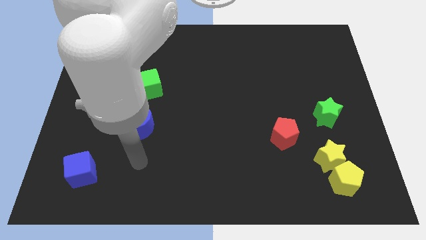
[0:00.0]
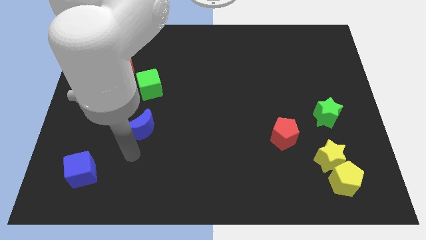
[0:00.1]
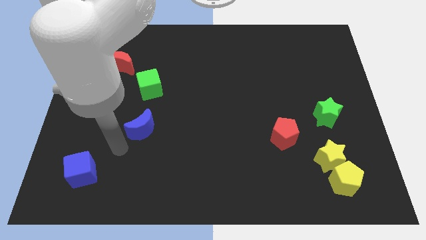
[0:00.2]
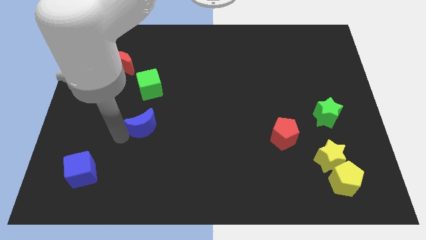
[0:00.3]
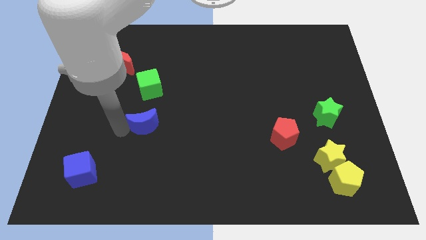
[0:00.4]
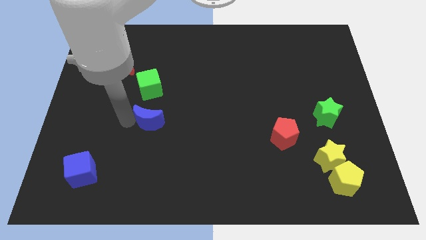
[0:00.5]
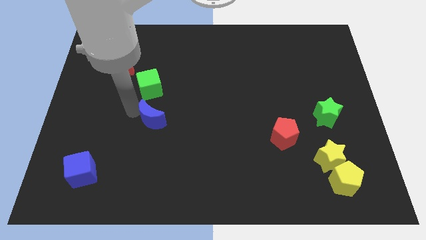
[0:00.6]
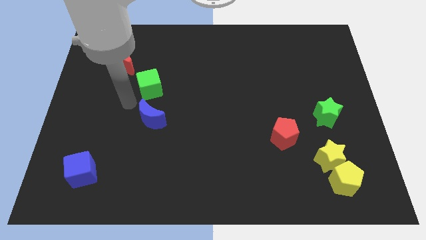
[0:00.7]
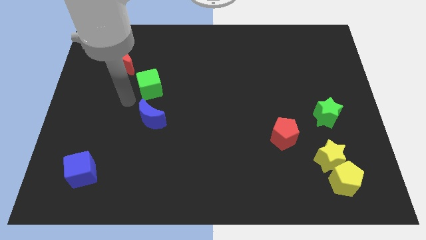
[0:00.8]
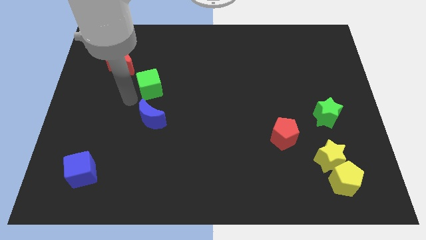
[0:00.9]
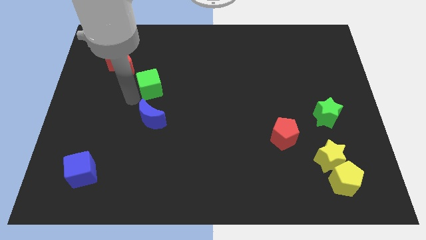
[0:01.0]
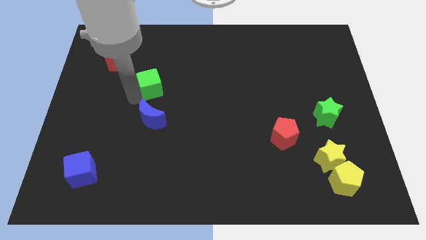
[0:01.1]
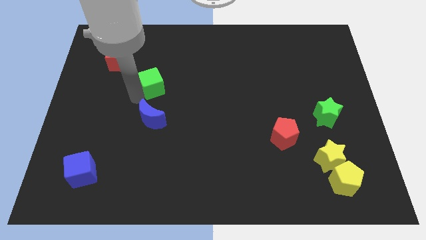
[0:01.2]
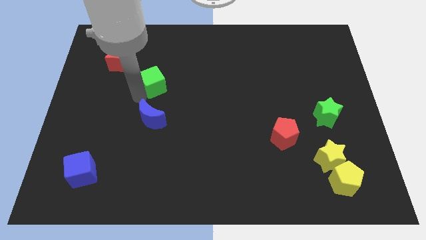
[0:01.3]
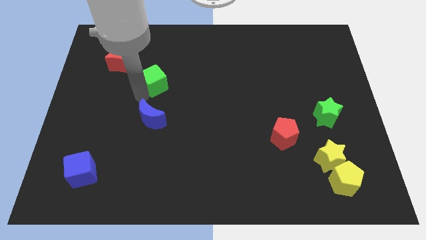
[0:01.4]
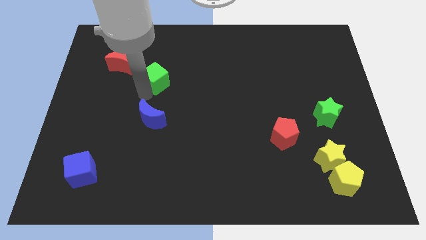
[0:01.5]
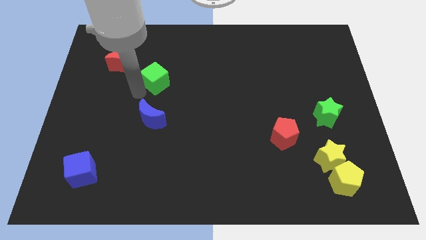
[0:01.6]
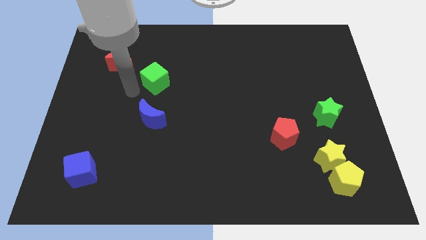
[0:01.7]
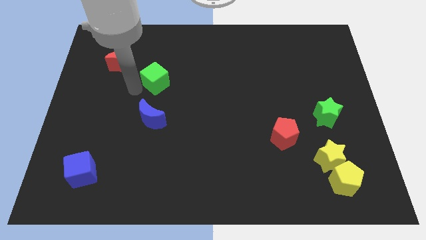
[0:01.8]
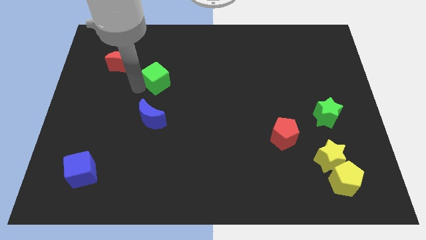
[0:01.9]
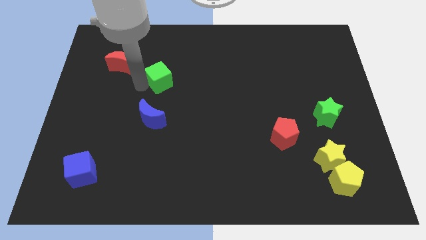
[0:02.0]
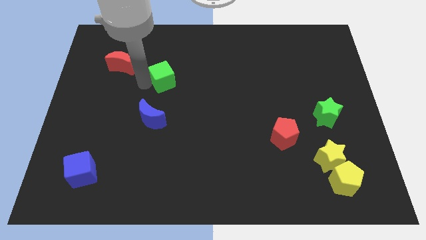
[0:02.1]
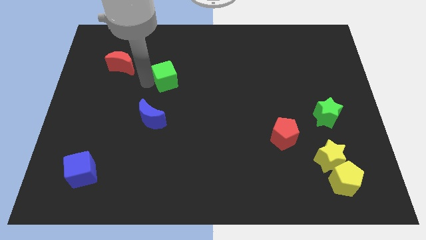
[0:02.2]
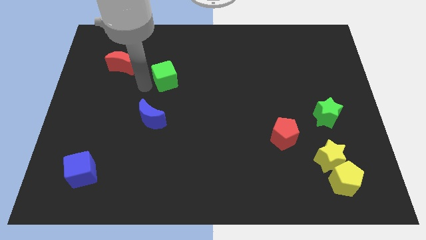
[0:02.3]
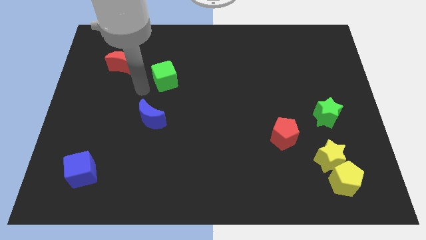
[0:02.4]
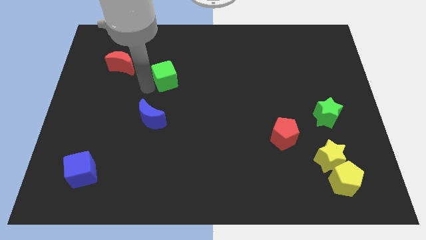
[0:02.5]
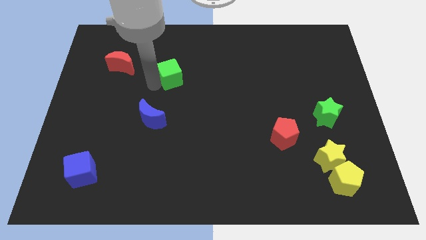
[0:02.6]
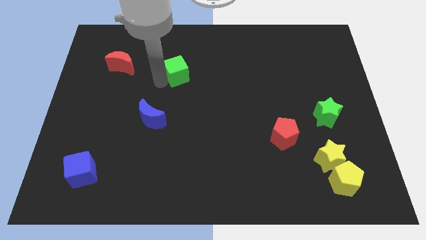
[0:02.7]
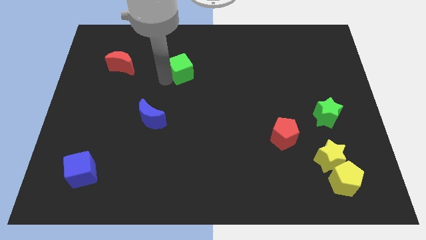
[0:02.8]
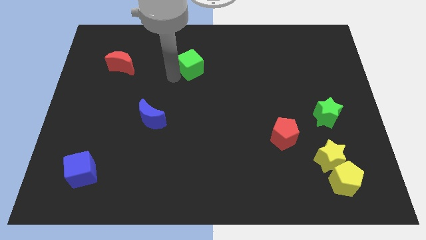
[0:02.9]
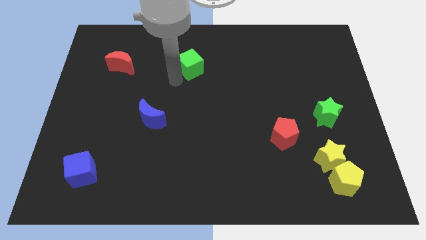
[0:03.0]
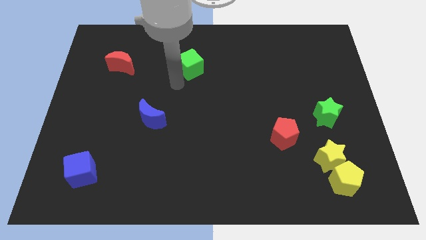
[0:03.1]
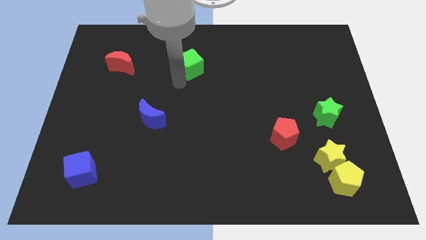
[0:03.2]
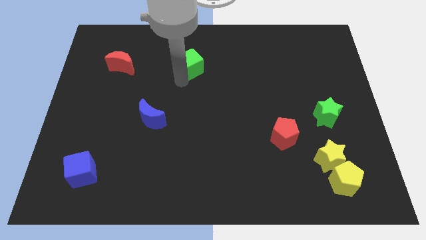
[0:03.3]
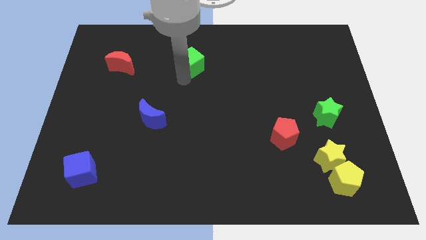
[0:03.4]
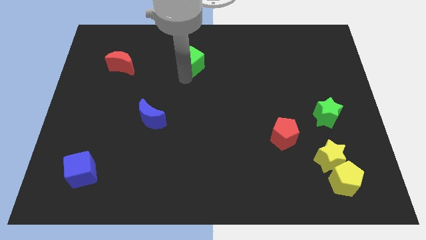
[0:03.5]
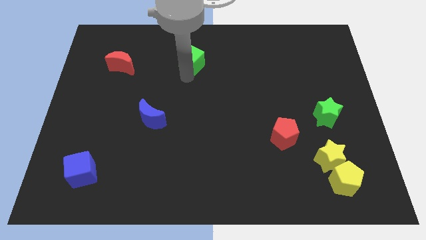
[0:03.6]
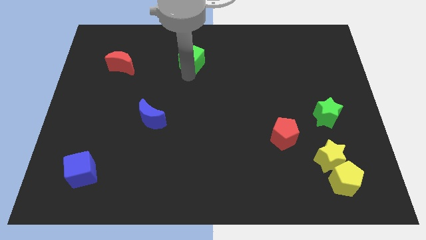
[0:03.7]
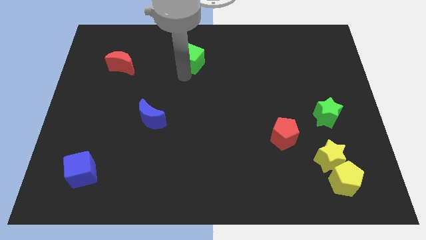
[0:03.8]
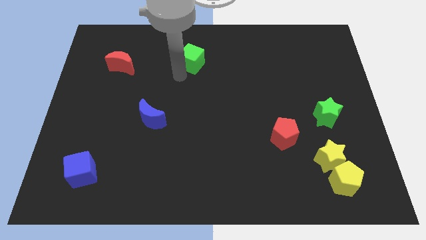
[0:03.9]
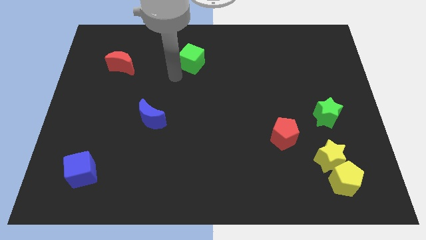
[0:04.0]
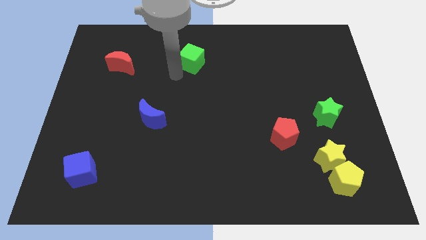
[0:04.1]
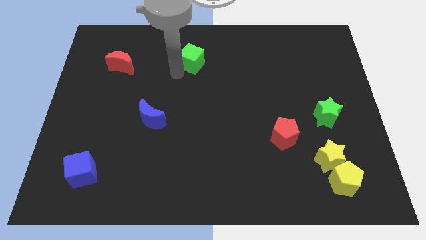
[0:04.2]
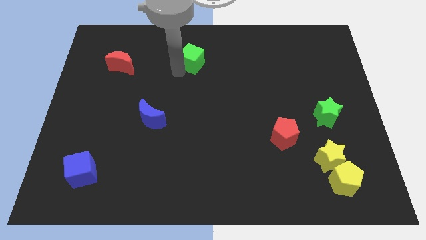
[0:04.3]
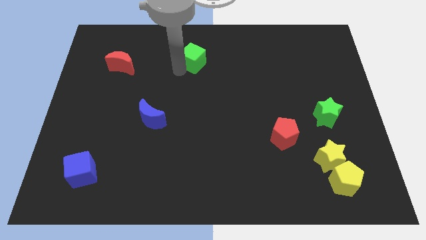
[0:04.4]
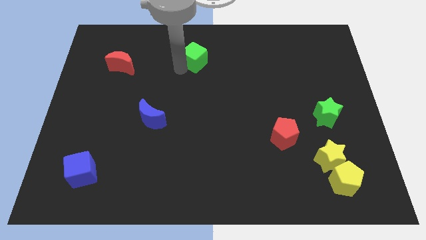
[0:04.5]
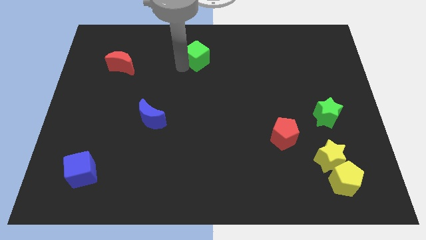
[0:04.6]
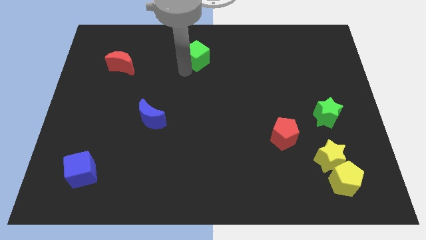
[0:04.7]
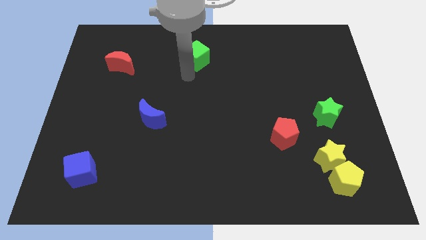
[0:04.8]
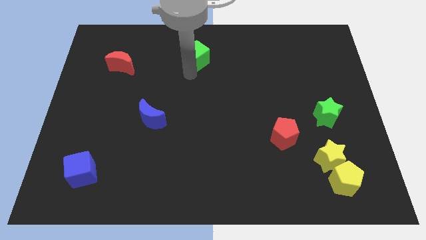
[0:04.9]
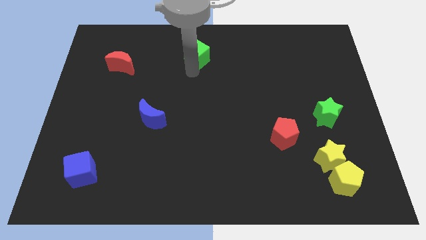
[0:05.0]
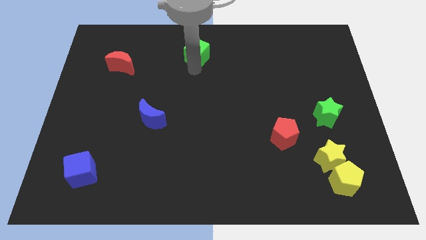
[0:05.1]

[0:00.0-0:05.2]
move the green cube to the top

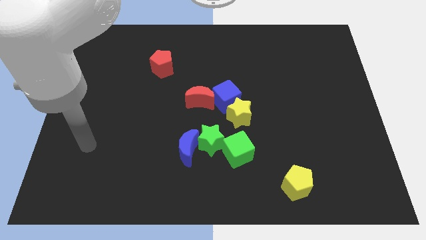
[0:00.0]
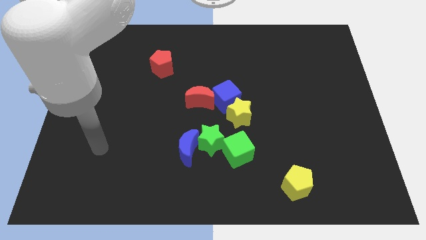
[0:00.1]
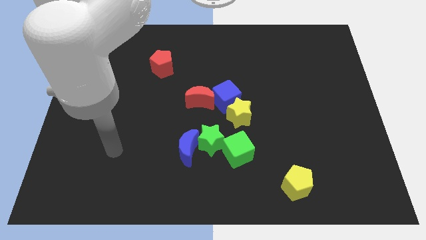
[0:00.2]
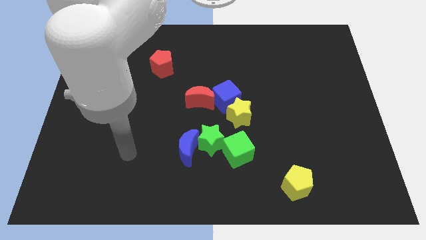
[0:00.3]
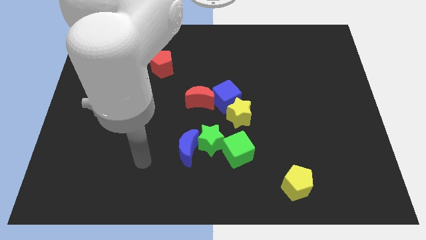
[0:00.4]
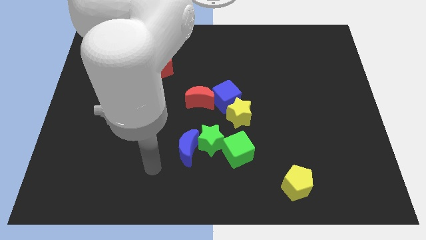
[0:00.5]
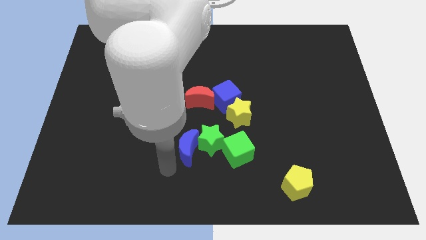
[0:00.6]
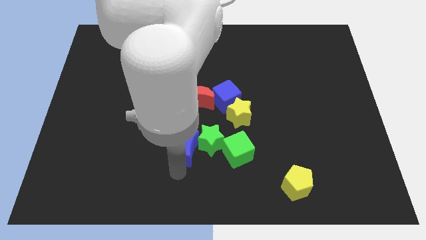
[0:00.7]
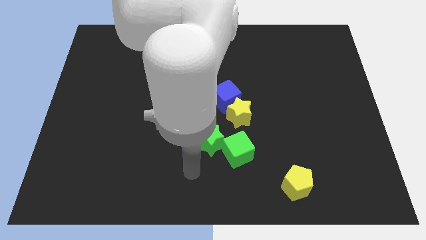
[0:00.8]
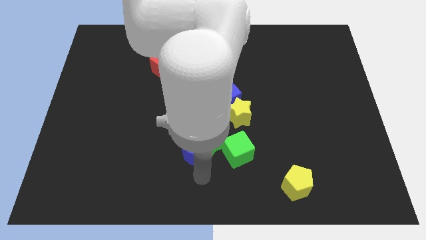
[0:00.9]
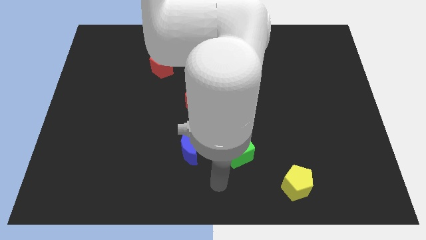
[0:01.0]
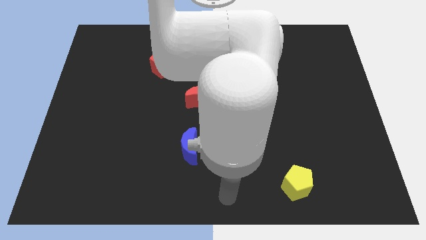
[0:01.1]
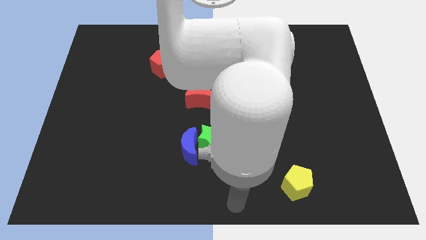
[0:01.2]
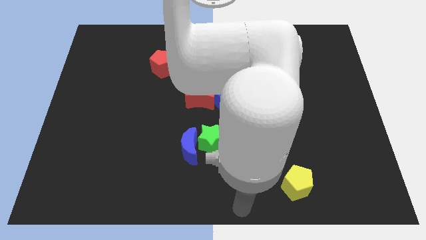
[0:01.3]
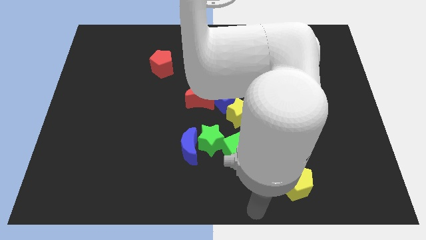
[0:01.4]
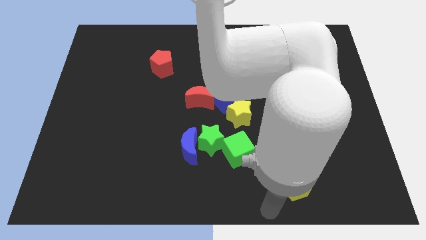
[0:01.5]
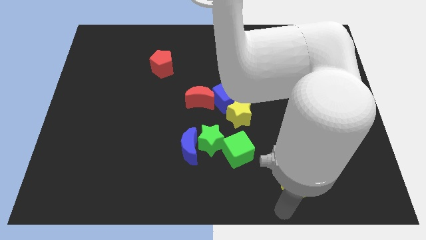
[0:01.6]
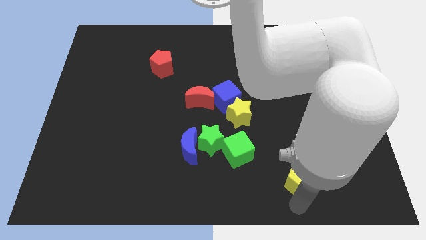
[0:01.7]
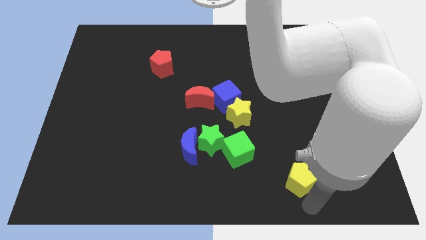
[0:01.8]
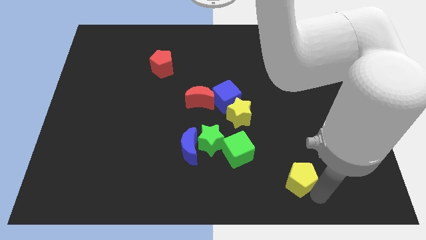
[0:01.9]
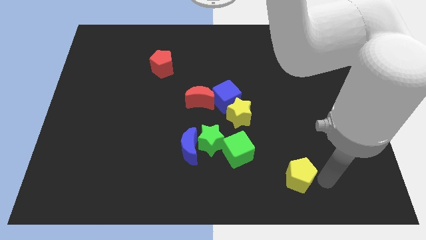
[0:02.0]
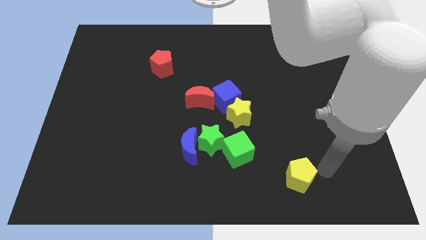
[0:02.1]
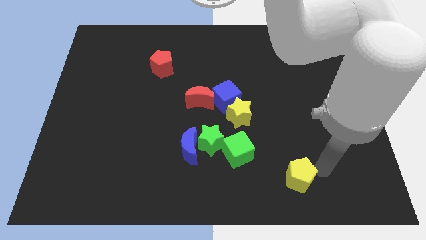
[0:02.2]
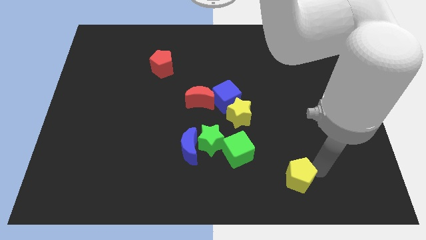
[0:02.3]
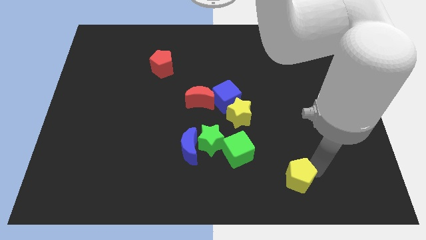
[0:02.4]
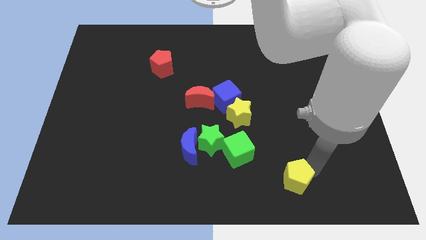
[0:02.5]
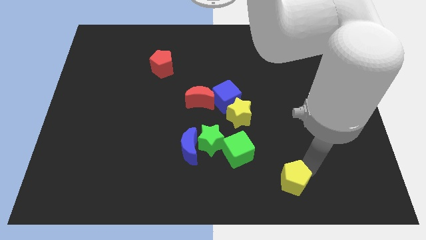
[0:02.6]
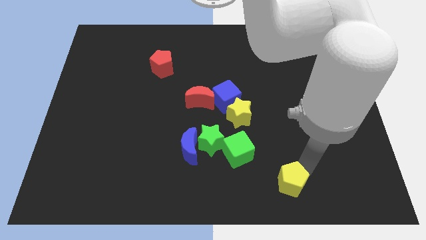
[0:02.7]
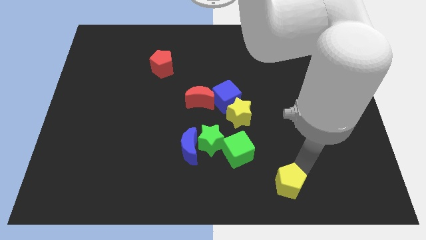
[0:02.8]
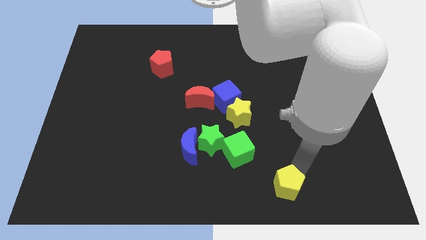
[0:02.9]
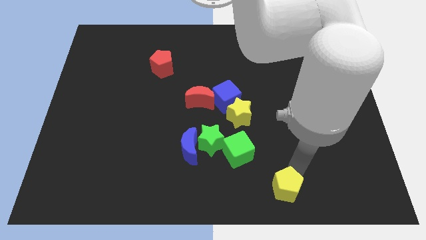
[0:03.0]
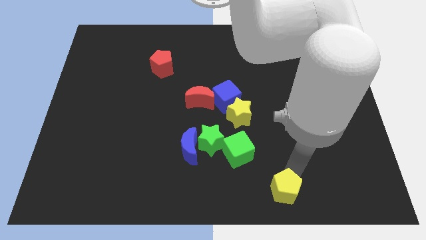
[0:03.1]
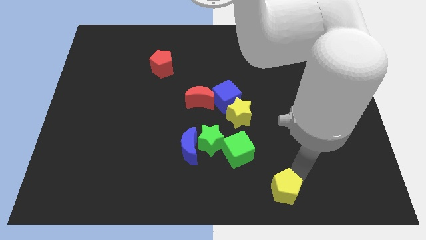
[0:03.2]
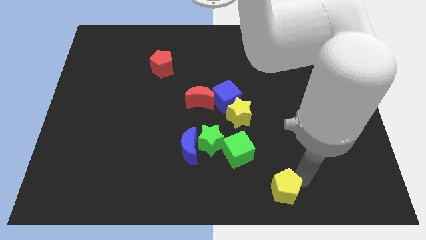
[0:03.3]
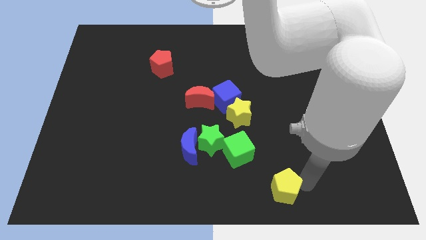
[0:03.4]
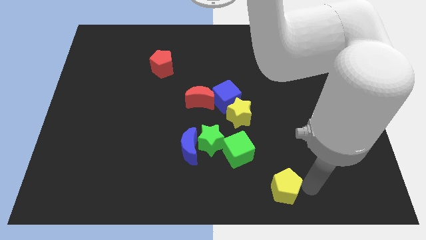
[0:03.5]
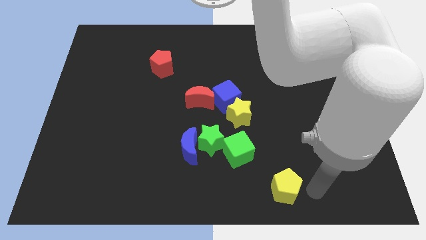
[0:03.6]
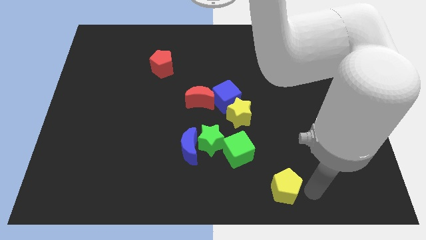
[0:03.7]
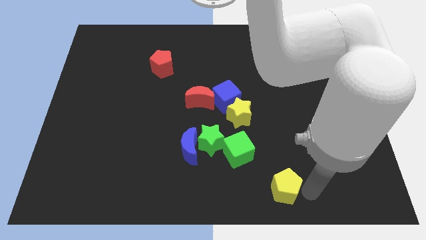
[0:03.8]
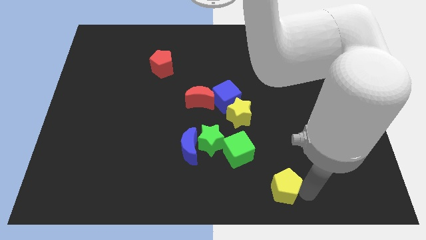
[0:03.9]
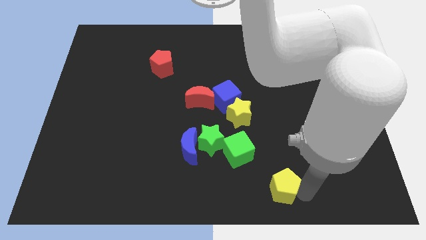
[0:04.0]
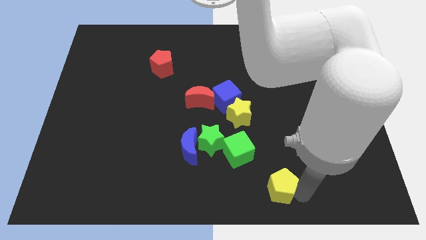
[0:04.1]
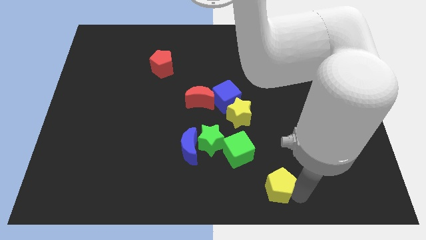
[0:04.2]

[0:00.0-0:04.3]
move the yellow pentagon to the bottom side
